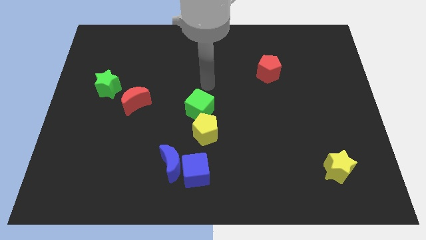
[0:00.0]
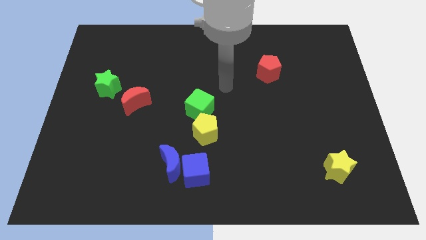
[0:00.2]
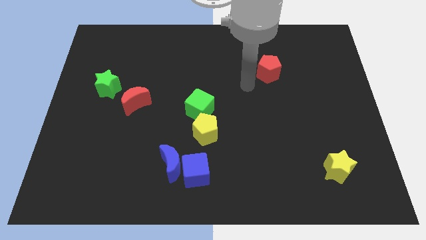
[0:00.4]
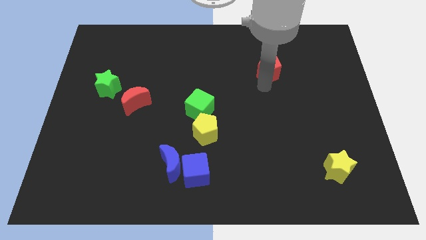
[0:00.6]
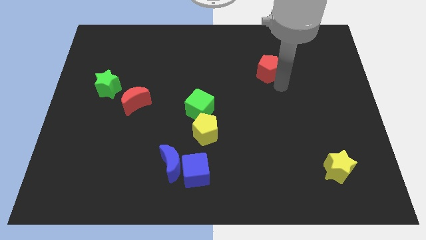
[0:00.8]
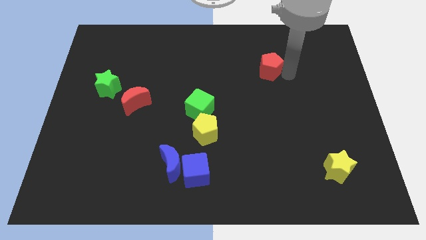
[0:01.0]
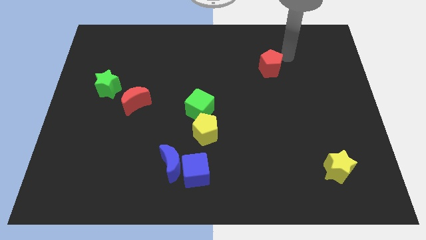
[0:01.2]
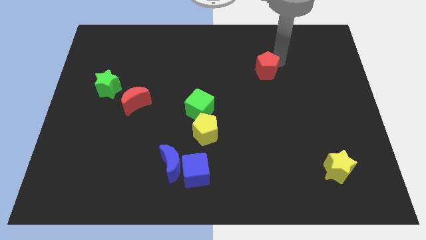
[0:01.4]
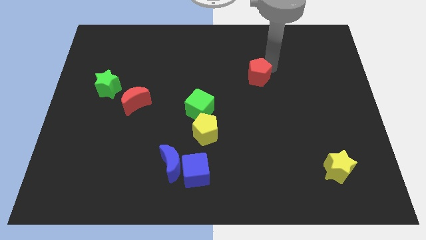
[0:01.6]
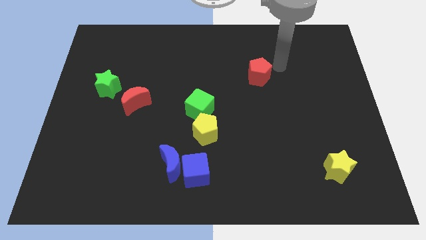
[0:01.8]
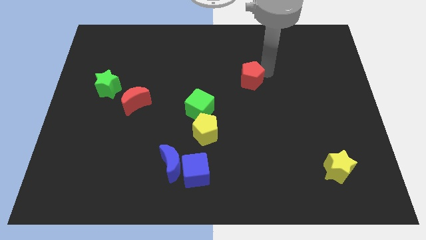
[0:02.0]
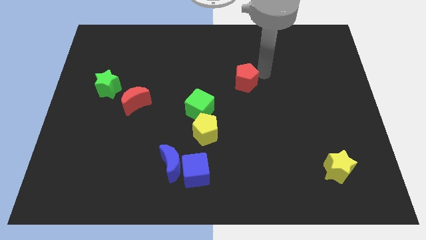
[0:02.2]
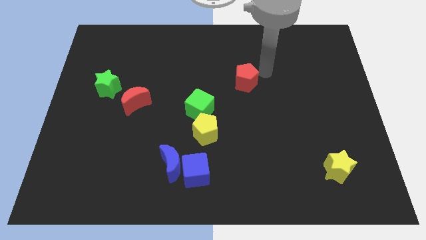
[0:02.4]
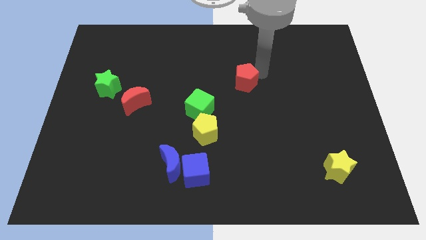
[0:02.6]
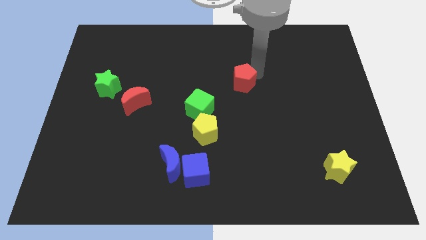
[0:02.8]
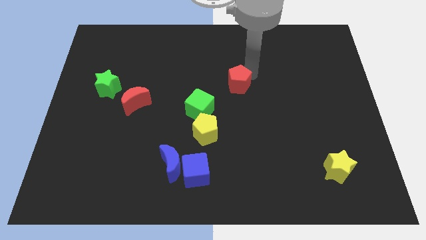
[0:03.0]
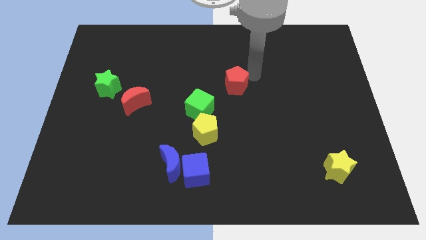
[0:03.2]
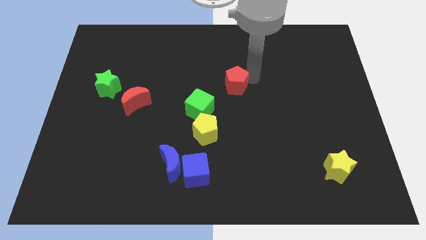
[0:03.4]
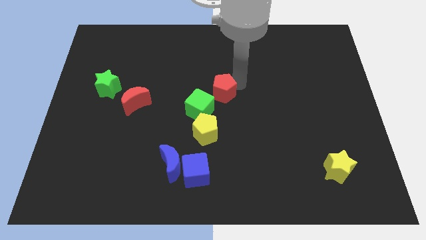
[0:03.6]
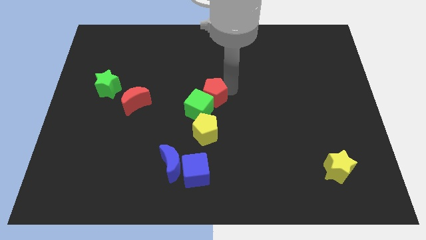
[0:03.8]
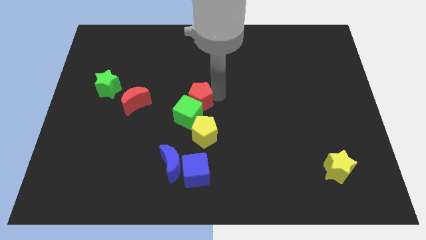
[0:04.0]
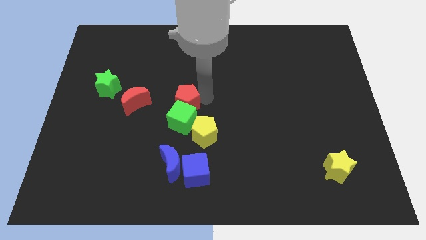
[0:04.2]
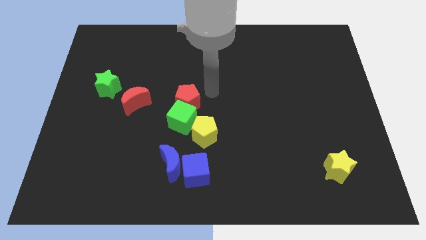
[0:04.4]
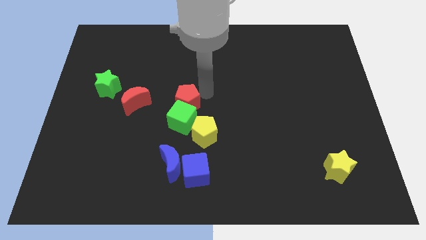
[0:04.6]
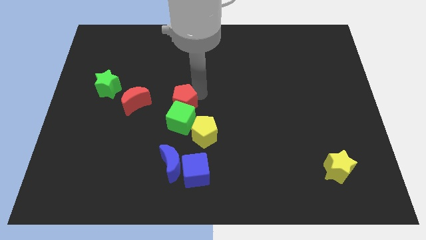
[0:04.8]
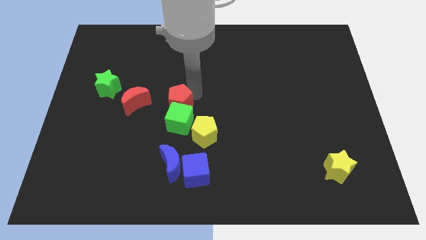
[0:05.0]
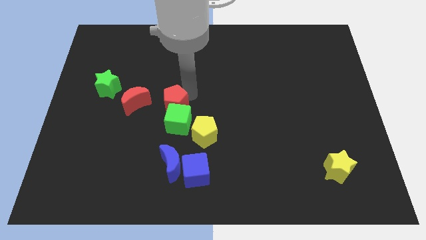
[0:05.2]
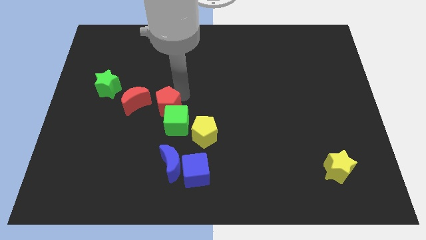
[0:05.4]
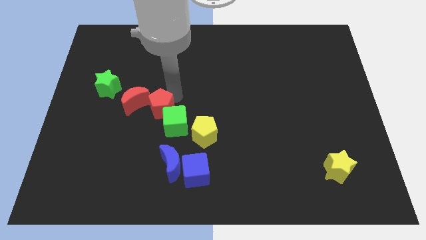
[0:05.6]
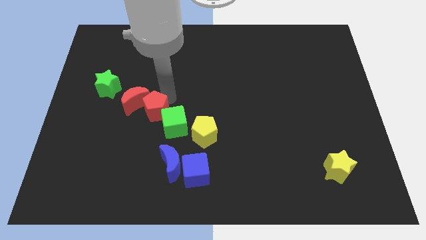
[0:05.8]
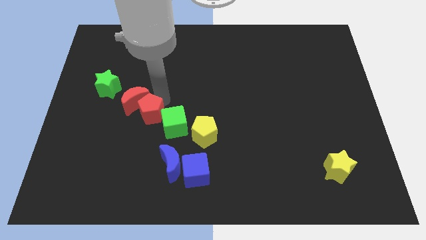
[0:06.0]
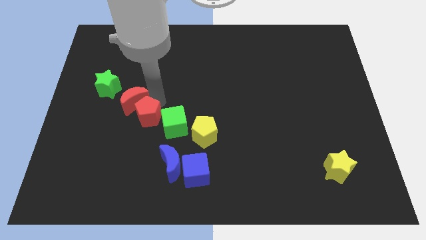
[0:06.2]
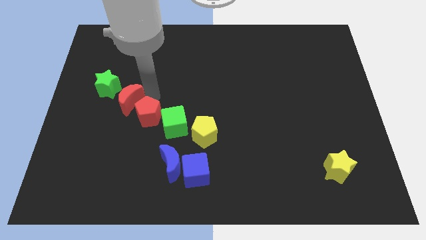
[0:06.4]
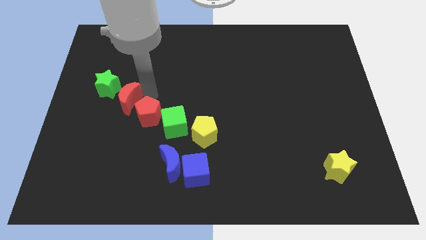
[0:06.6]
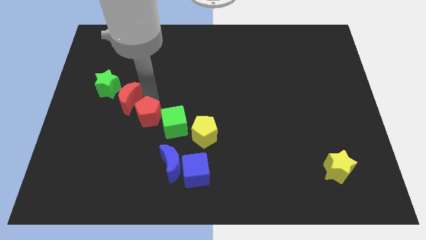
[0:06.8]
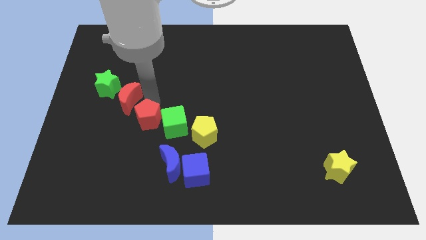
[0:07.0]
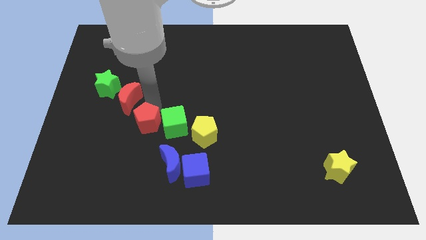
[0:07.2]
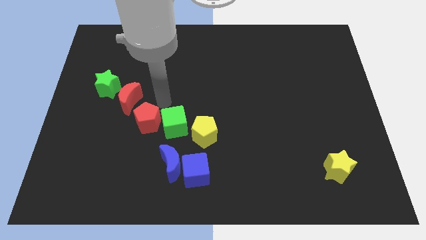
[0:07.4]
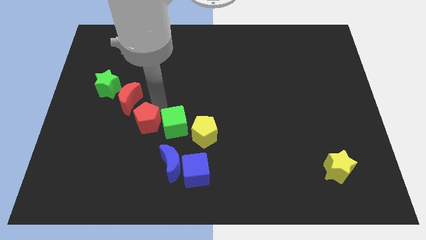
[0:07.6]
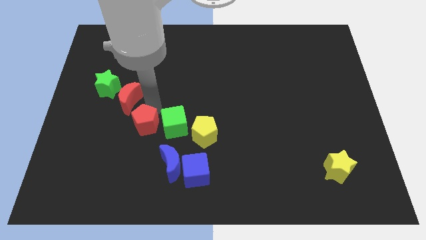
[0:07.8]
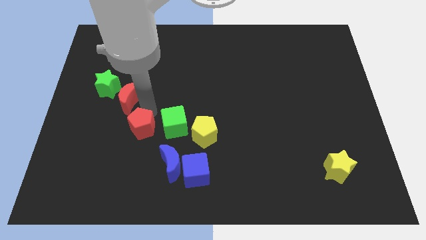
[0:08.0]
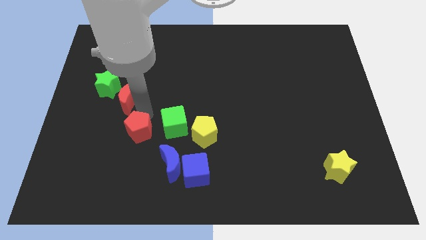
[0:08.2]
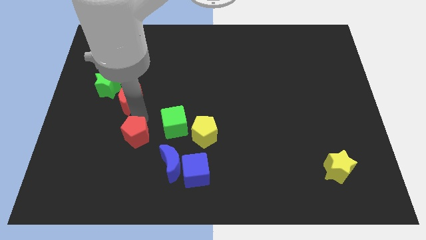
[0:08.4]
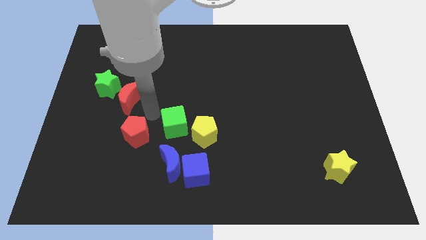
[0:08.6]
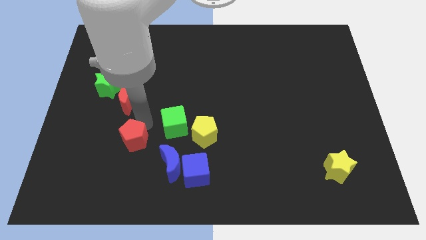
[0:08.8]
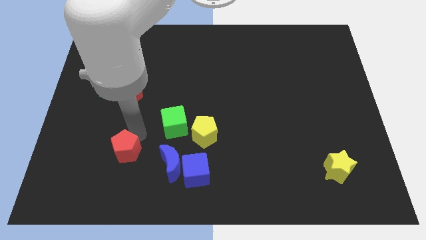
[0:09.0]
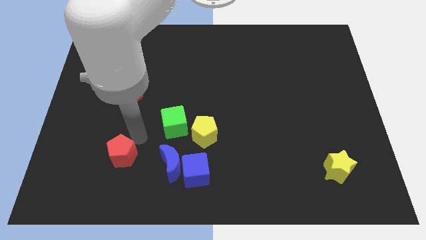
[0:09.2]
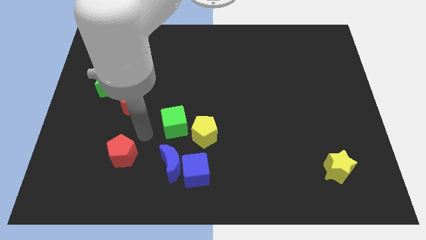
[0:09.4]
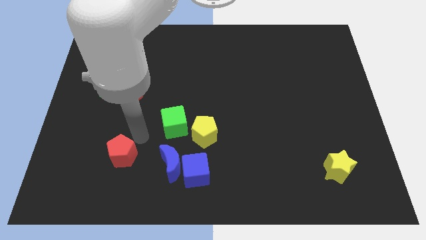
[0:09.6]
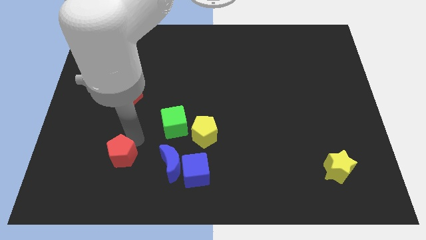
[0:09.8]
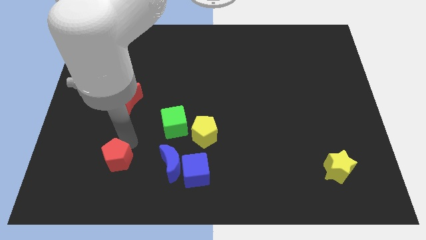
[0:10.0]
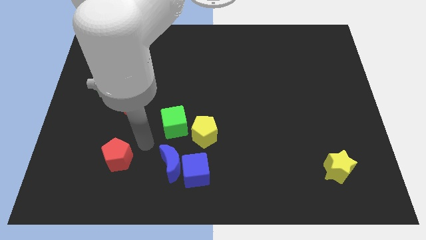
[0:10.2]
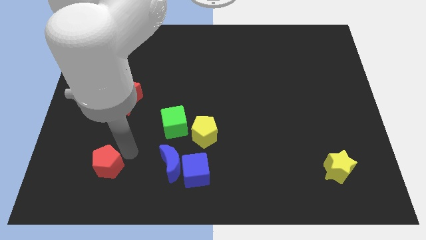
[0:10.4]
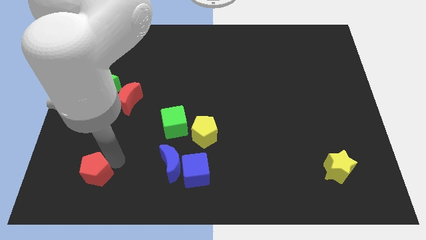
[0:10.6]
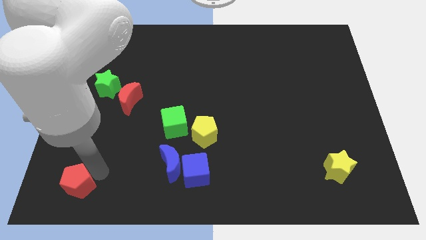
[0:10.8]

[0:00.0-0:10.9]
put the red pentagon to the bottom left corner

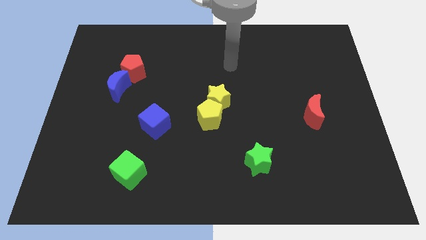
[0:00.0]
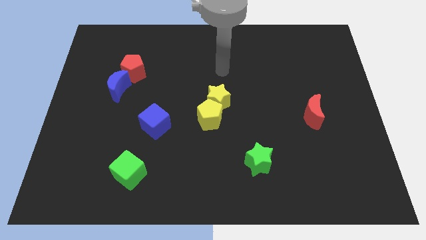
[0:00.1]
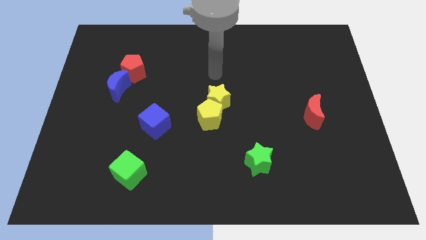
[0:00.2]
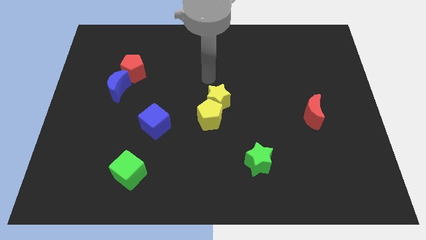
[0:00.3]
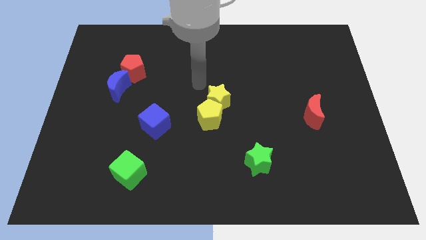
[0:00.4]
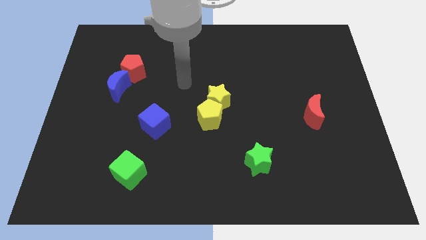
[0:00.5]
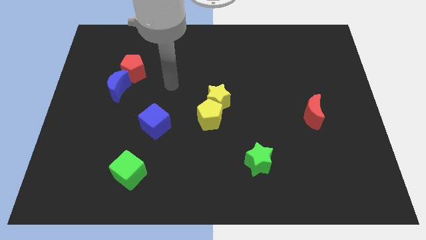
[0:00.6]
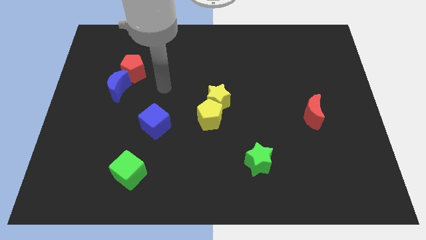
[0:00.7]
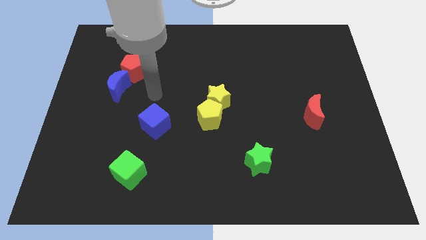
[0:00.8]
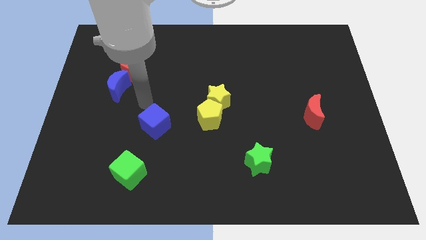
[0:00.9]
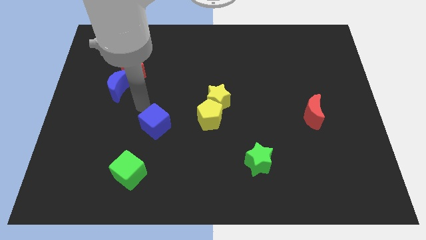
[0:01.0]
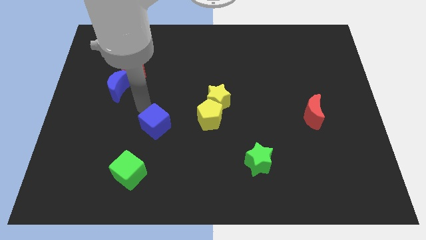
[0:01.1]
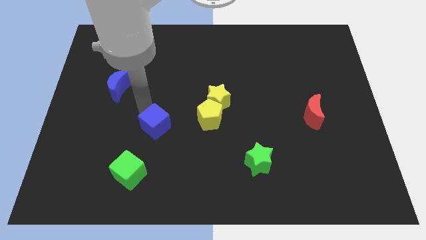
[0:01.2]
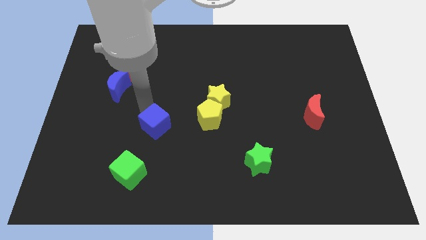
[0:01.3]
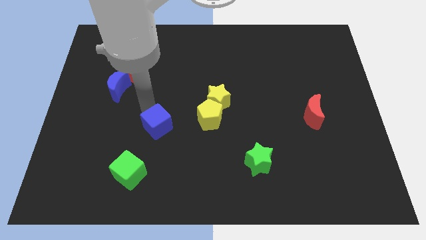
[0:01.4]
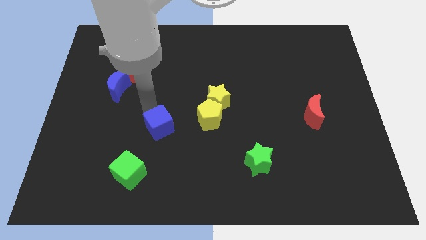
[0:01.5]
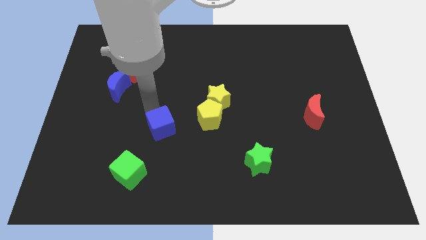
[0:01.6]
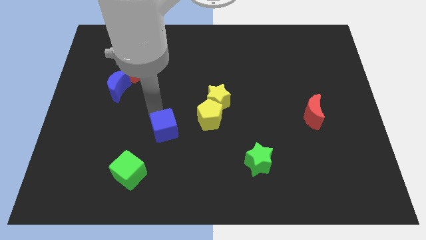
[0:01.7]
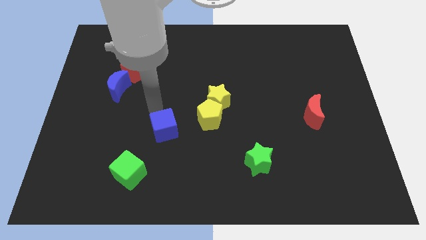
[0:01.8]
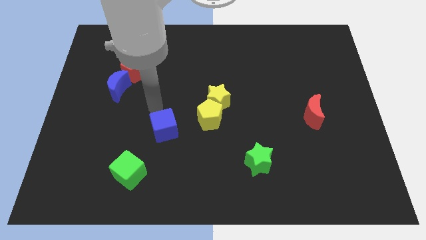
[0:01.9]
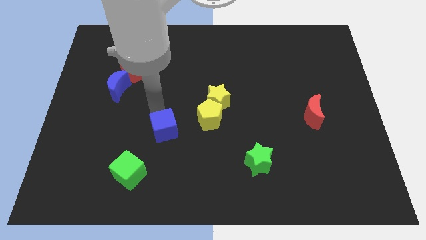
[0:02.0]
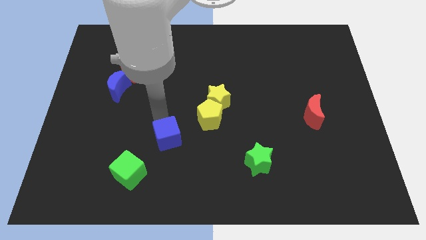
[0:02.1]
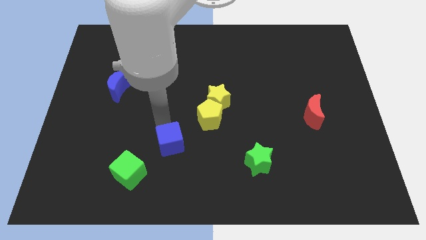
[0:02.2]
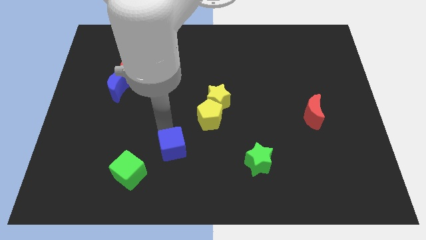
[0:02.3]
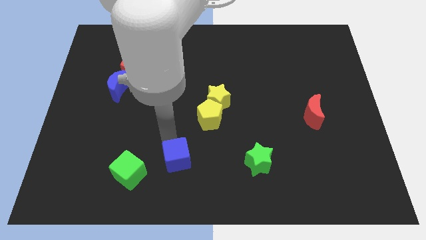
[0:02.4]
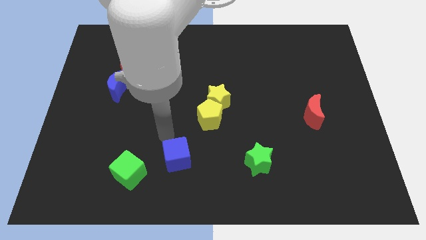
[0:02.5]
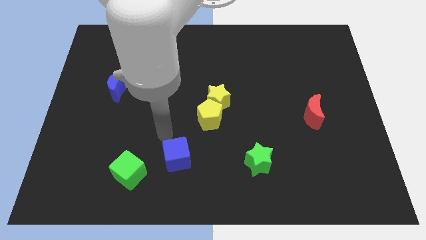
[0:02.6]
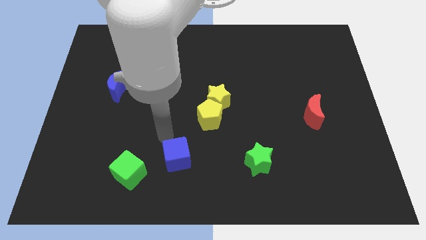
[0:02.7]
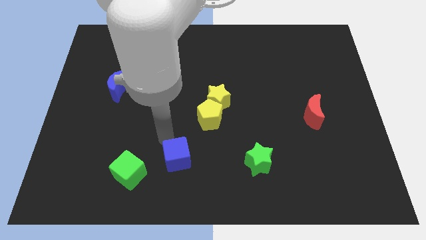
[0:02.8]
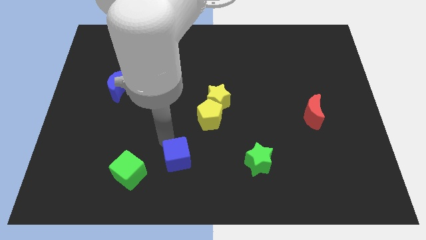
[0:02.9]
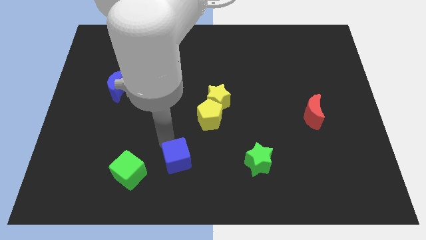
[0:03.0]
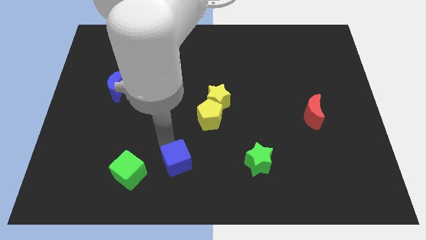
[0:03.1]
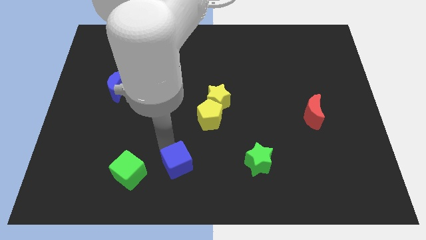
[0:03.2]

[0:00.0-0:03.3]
move the blue cube to the bottom side
